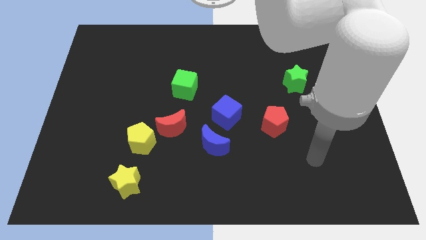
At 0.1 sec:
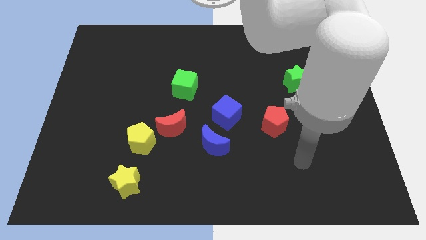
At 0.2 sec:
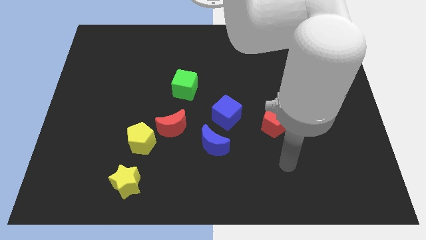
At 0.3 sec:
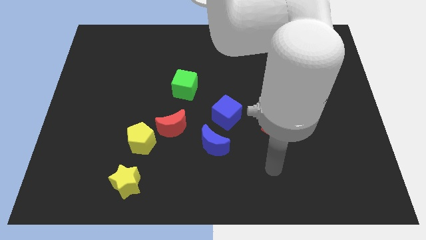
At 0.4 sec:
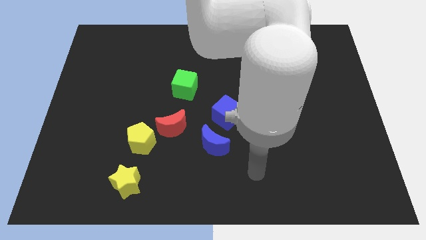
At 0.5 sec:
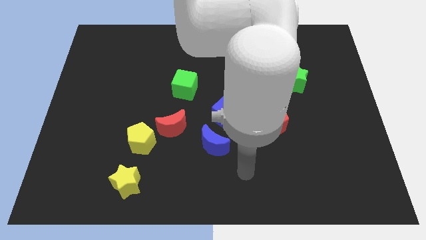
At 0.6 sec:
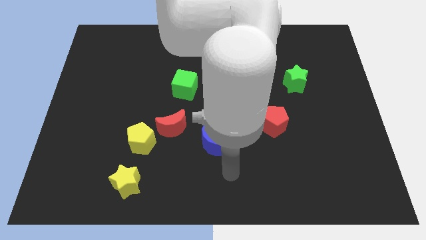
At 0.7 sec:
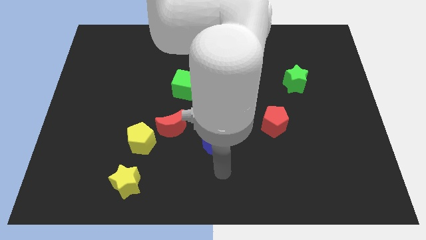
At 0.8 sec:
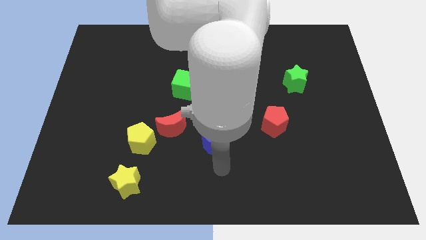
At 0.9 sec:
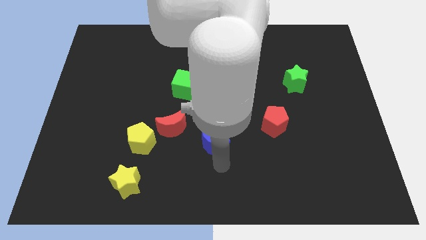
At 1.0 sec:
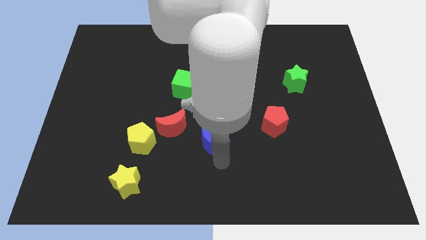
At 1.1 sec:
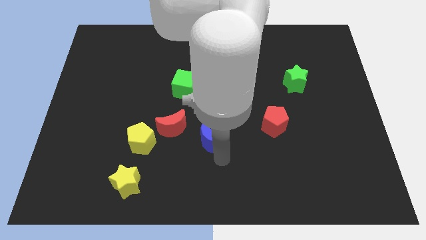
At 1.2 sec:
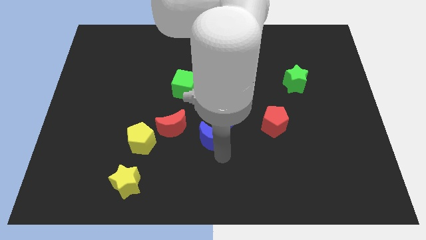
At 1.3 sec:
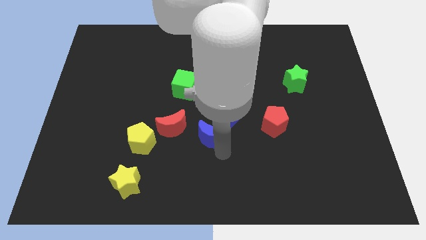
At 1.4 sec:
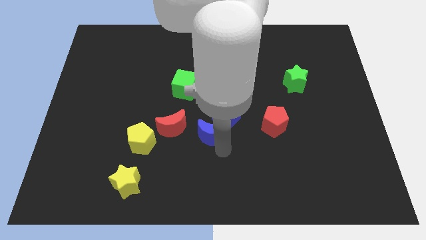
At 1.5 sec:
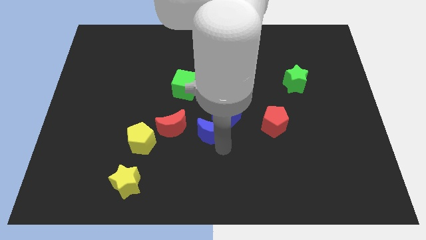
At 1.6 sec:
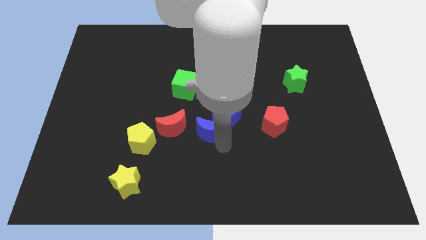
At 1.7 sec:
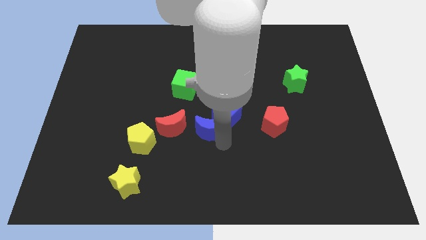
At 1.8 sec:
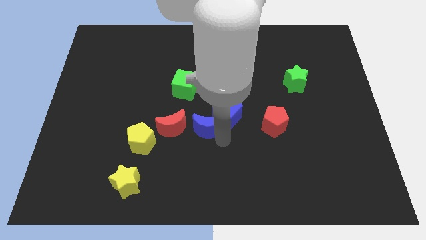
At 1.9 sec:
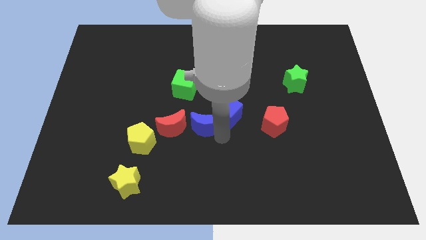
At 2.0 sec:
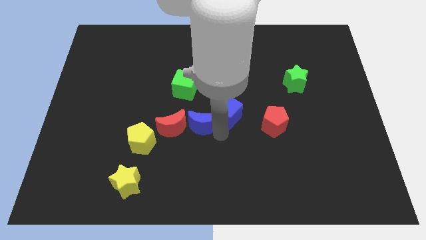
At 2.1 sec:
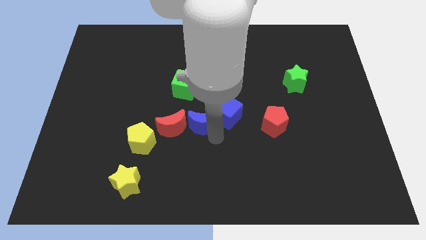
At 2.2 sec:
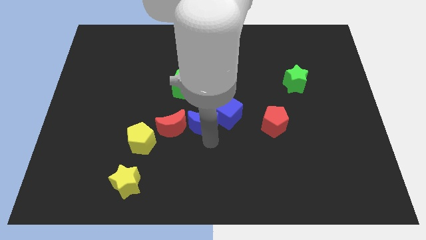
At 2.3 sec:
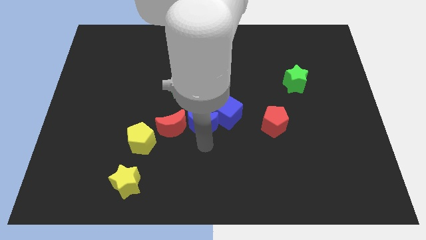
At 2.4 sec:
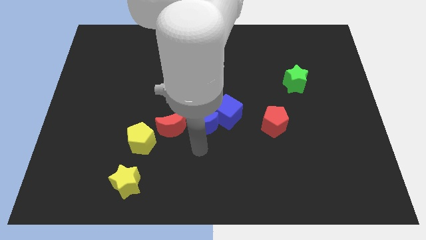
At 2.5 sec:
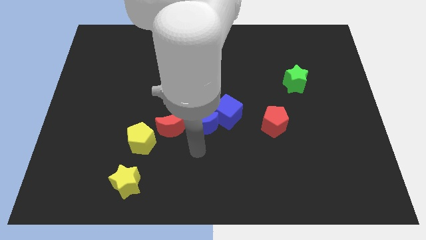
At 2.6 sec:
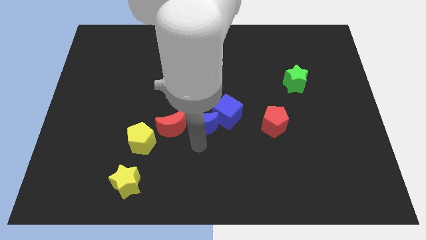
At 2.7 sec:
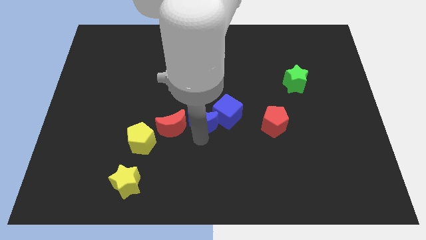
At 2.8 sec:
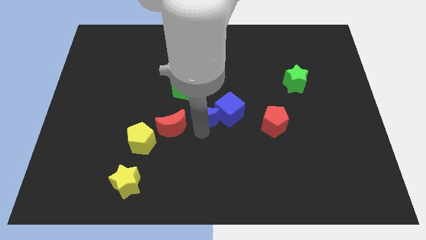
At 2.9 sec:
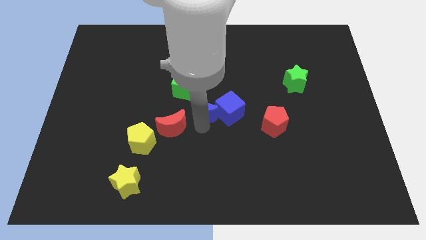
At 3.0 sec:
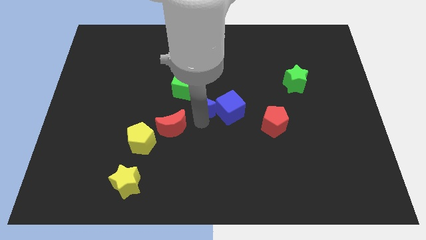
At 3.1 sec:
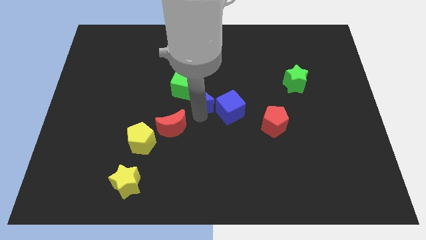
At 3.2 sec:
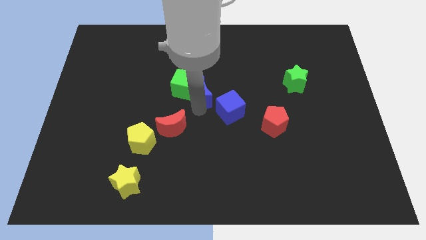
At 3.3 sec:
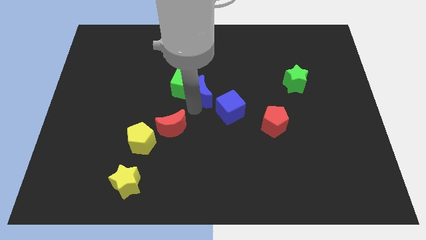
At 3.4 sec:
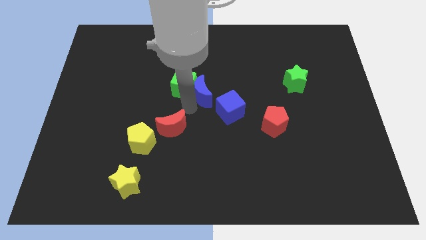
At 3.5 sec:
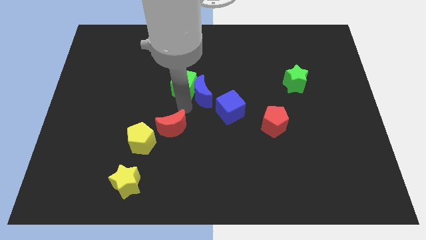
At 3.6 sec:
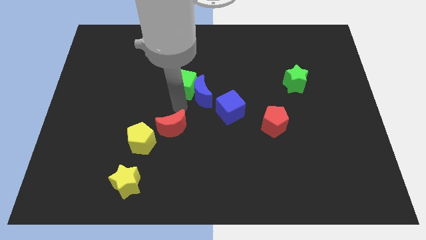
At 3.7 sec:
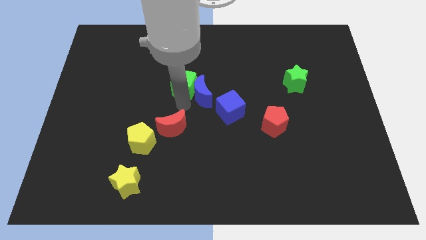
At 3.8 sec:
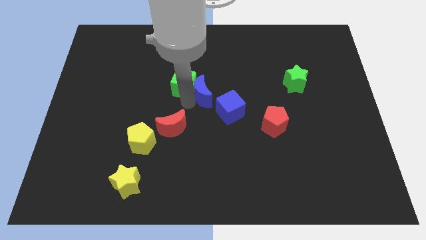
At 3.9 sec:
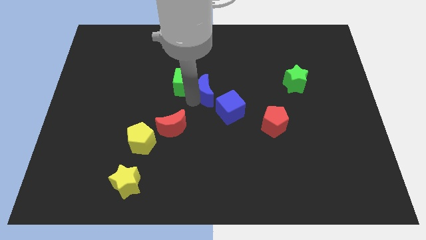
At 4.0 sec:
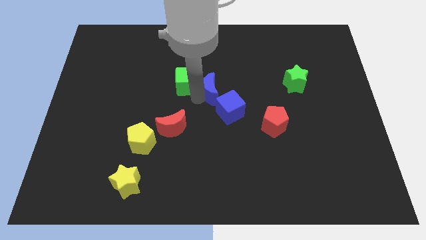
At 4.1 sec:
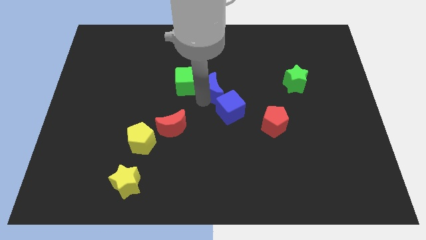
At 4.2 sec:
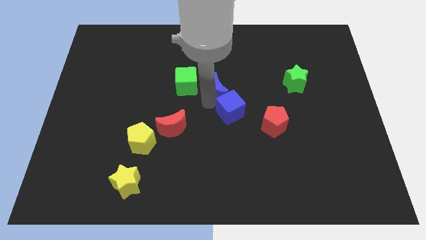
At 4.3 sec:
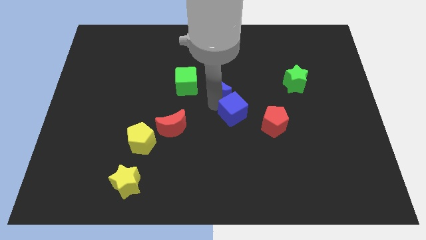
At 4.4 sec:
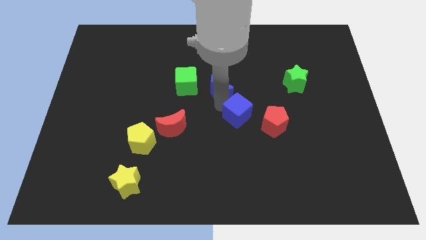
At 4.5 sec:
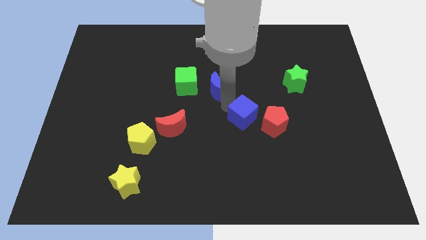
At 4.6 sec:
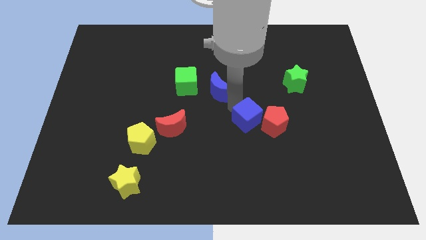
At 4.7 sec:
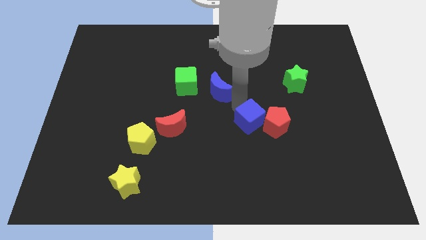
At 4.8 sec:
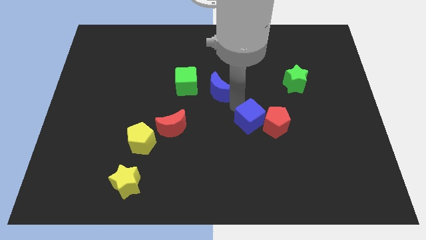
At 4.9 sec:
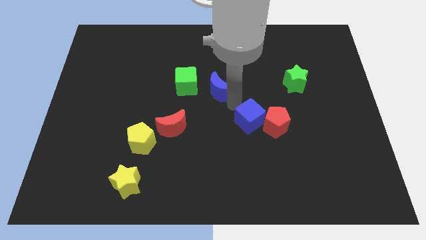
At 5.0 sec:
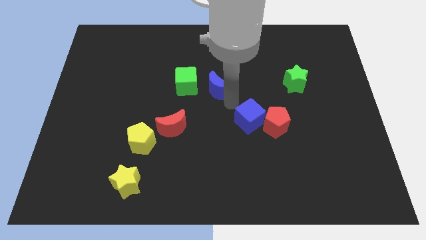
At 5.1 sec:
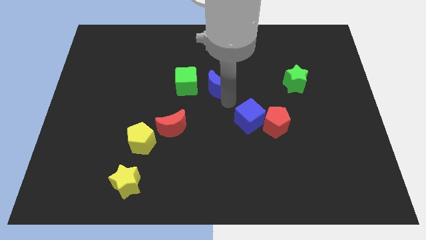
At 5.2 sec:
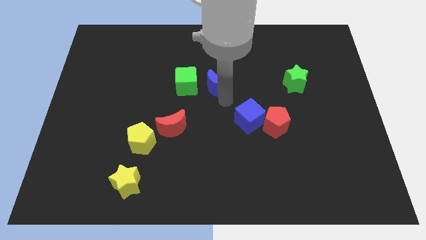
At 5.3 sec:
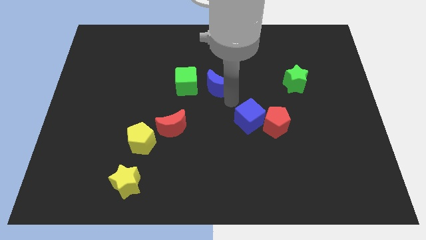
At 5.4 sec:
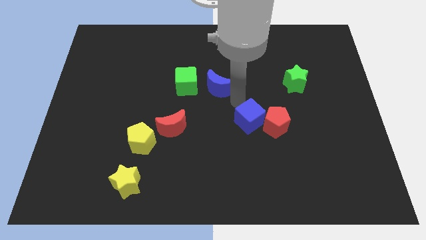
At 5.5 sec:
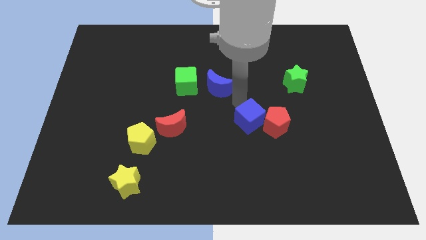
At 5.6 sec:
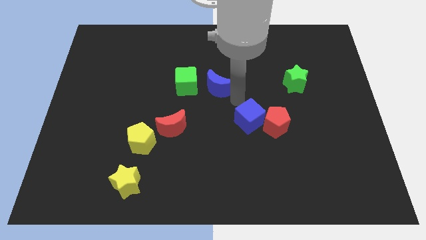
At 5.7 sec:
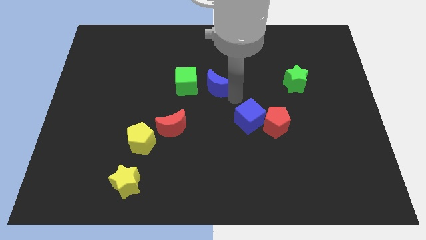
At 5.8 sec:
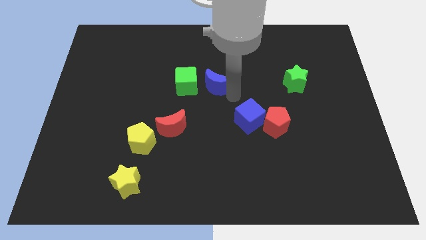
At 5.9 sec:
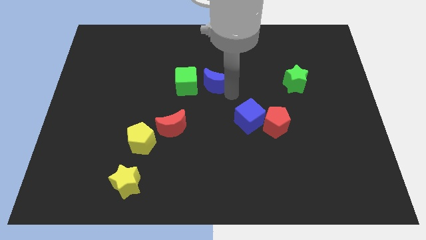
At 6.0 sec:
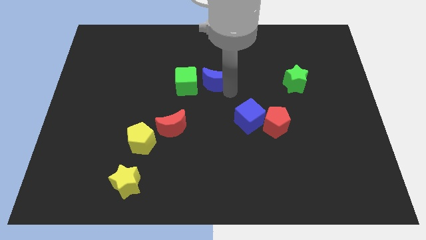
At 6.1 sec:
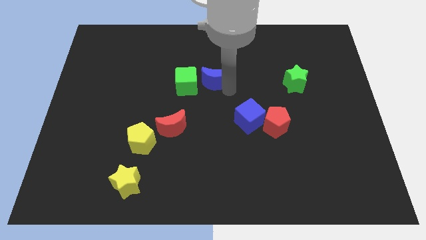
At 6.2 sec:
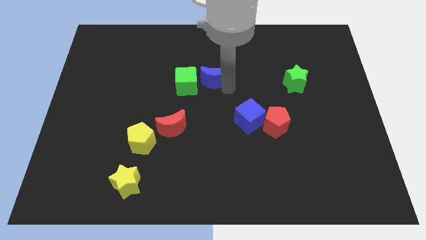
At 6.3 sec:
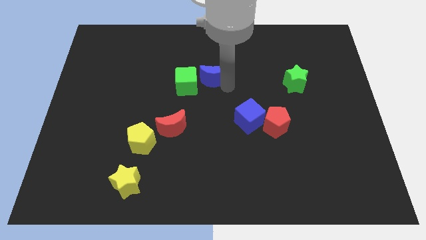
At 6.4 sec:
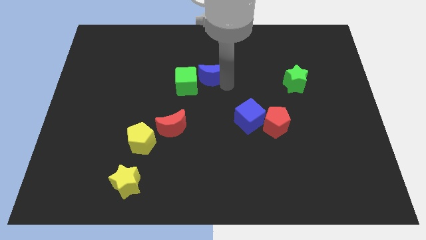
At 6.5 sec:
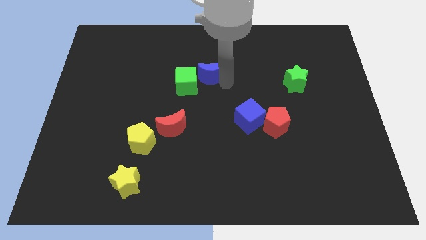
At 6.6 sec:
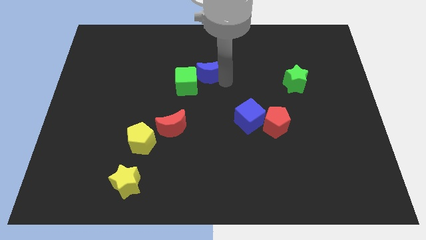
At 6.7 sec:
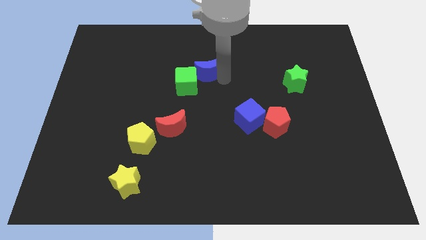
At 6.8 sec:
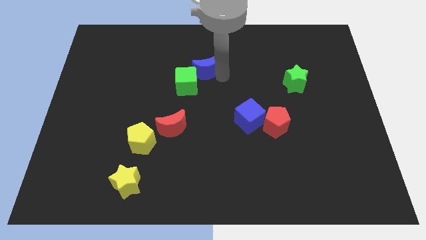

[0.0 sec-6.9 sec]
move the blue moon to the top side of the green cube
